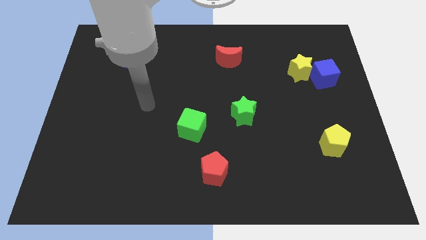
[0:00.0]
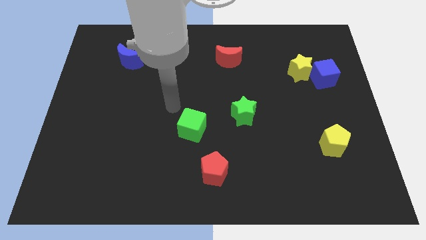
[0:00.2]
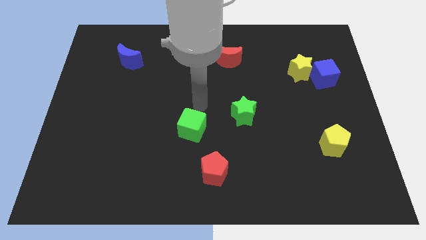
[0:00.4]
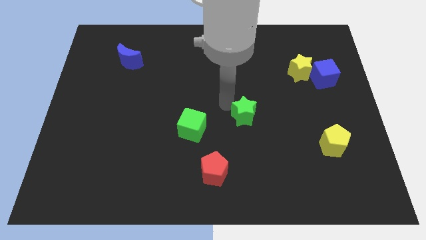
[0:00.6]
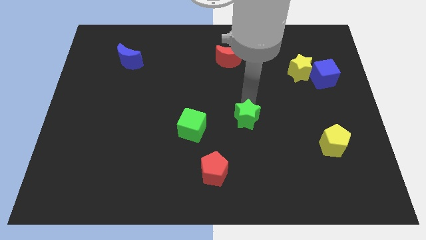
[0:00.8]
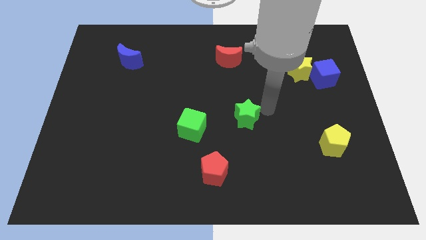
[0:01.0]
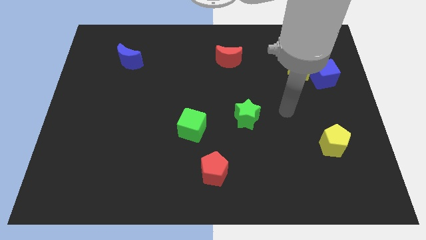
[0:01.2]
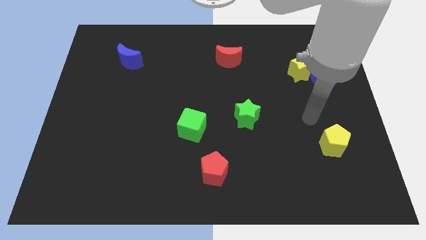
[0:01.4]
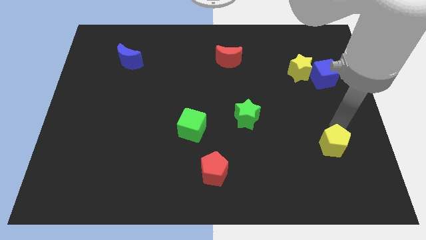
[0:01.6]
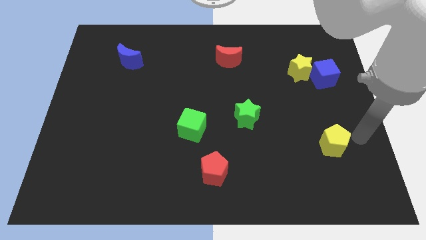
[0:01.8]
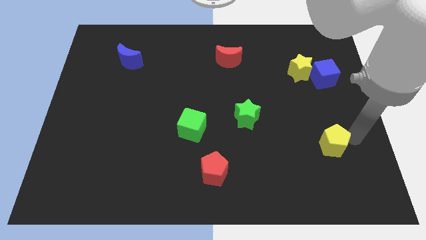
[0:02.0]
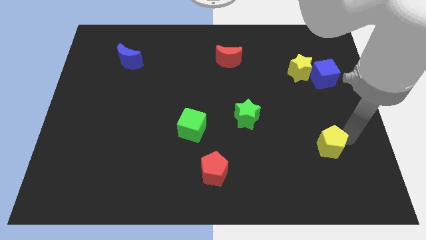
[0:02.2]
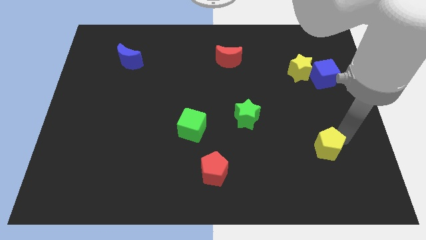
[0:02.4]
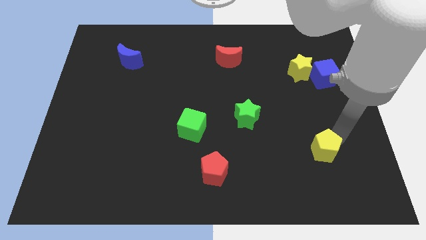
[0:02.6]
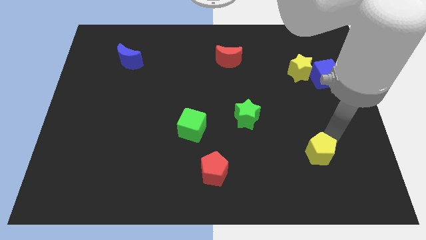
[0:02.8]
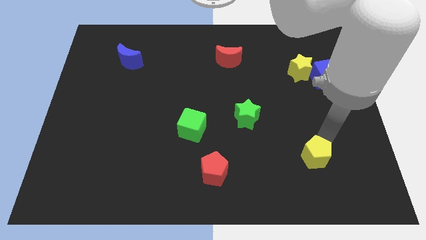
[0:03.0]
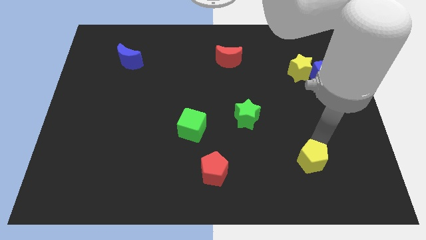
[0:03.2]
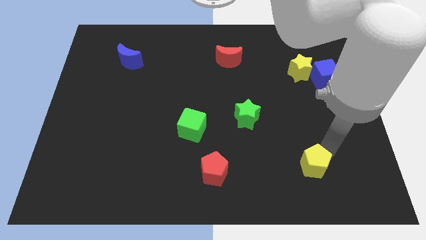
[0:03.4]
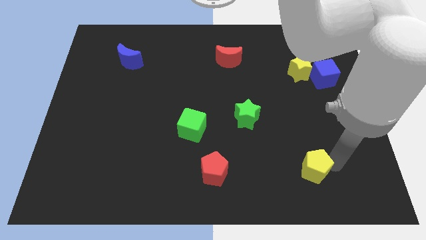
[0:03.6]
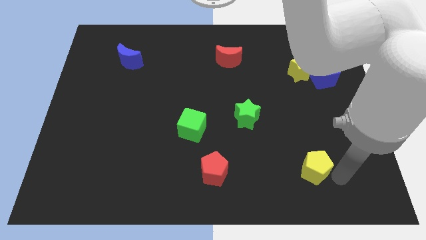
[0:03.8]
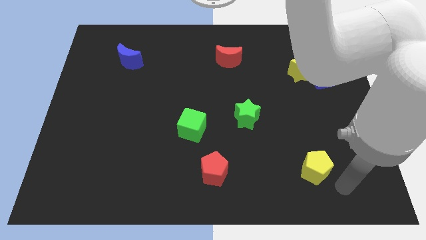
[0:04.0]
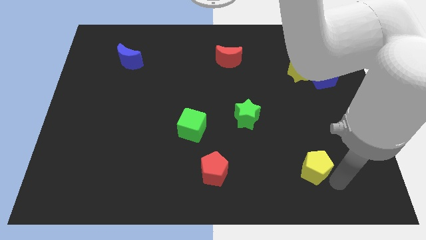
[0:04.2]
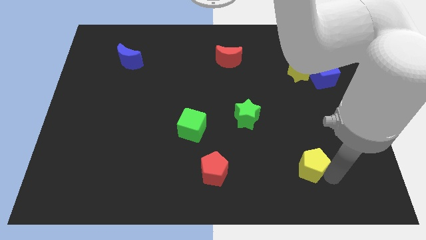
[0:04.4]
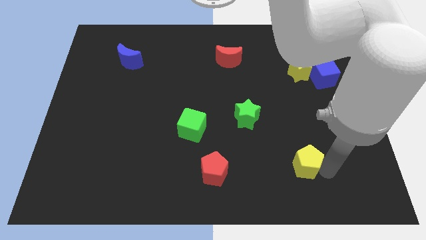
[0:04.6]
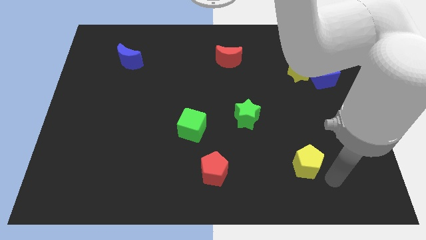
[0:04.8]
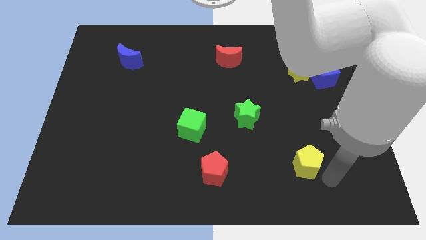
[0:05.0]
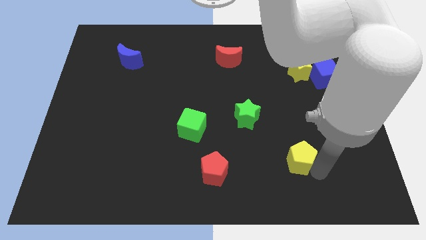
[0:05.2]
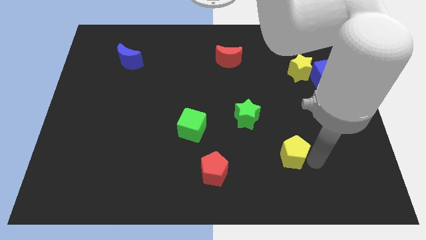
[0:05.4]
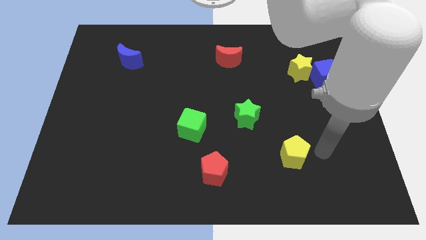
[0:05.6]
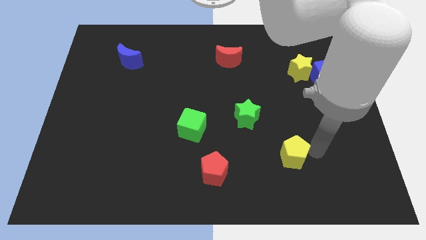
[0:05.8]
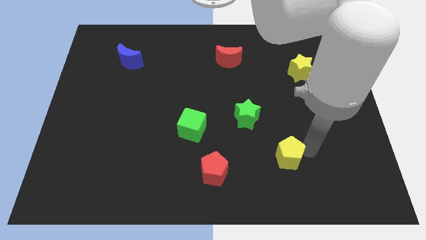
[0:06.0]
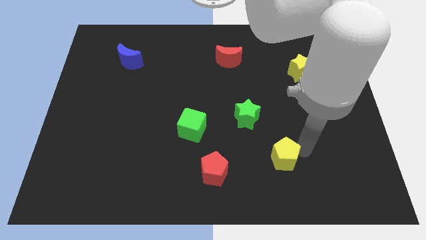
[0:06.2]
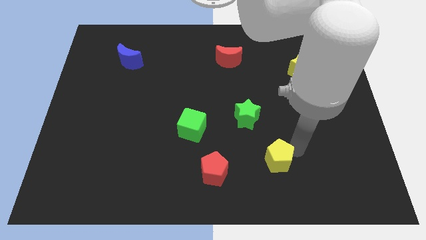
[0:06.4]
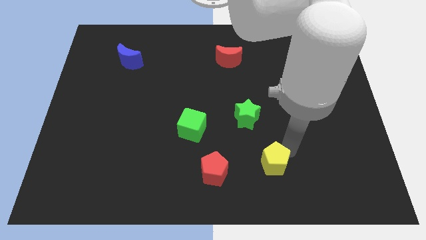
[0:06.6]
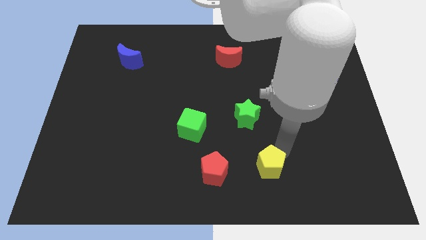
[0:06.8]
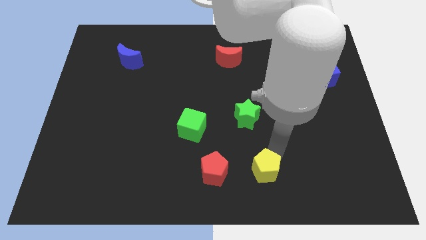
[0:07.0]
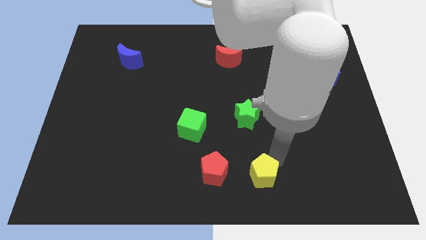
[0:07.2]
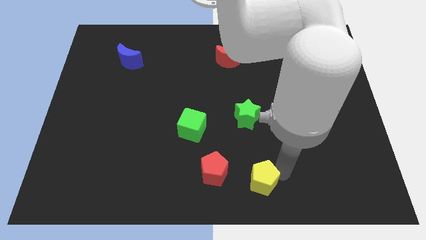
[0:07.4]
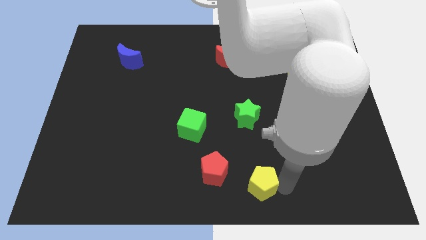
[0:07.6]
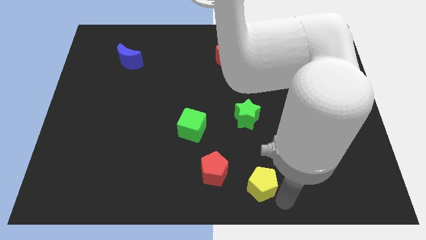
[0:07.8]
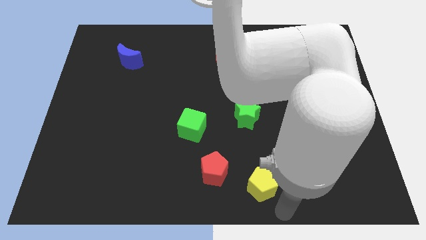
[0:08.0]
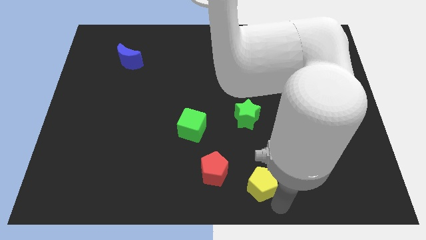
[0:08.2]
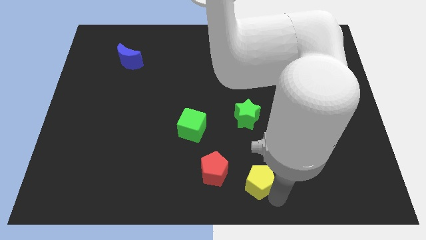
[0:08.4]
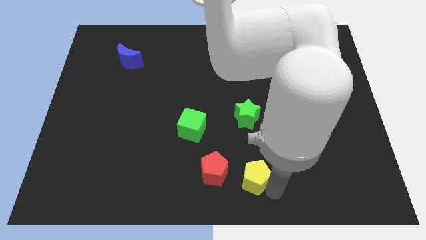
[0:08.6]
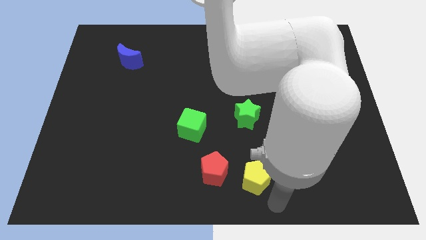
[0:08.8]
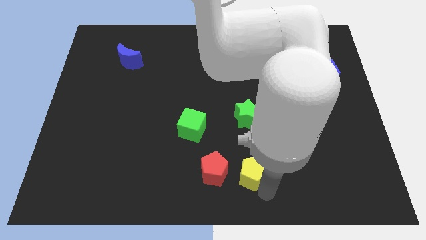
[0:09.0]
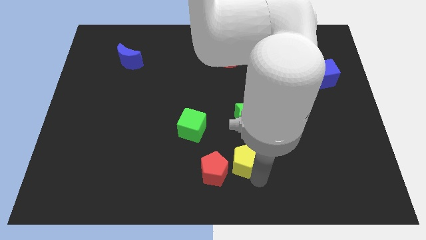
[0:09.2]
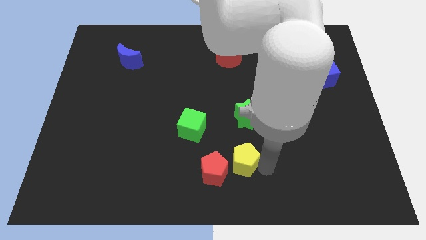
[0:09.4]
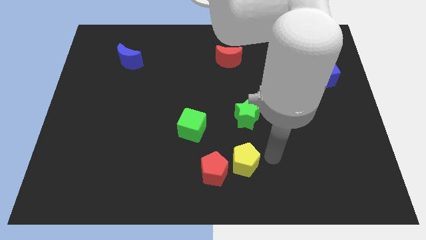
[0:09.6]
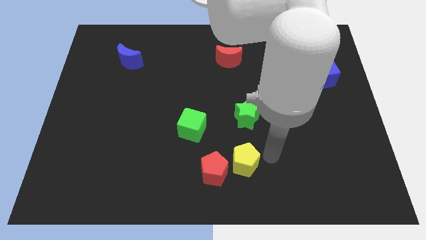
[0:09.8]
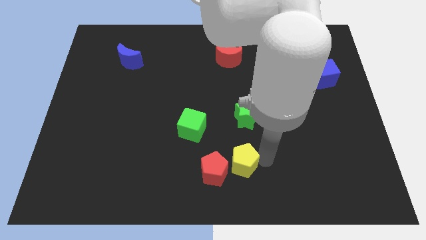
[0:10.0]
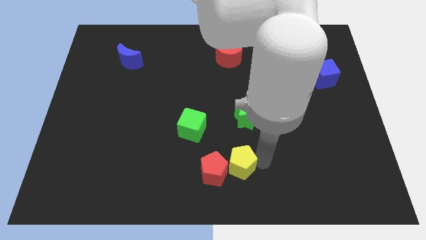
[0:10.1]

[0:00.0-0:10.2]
slide the yellow pentagon next to the red pentagon

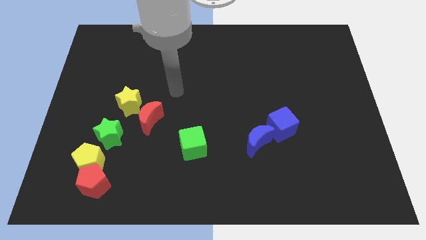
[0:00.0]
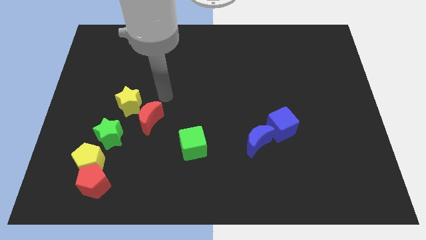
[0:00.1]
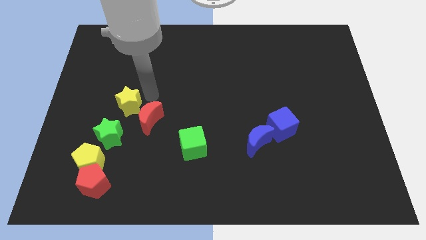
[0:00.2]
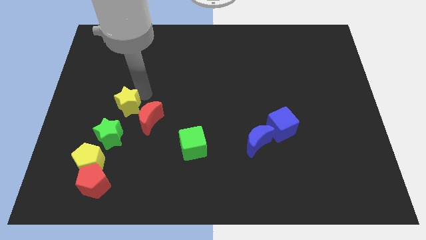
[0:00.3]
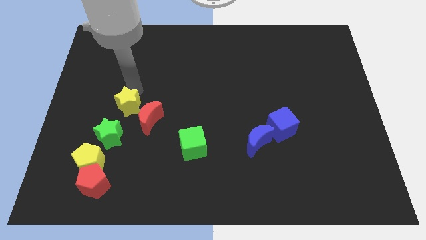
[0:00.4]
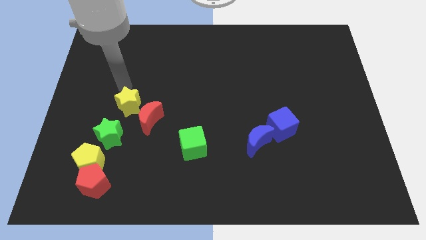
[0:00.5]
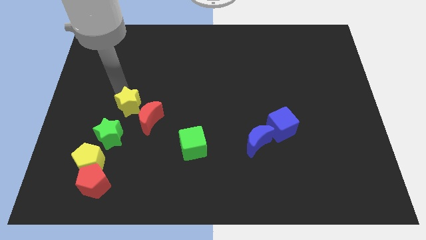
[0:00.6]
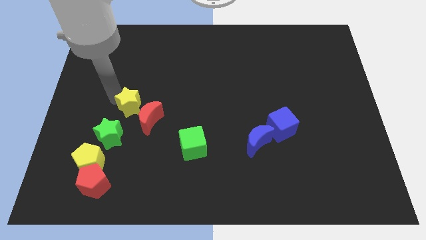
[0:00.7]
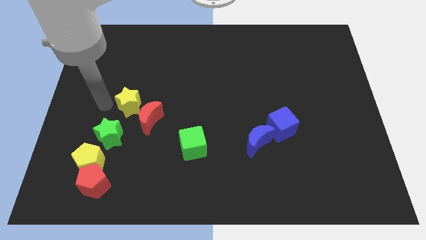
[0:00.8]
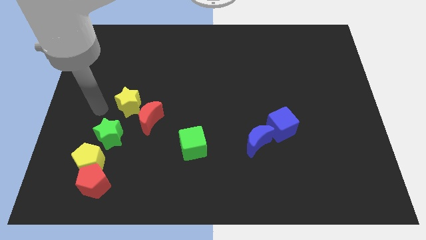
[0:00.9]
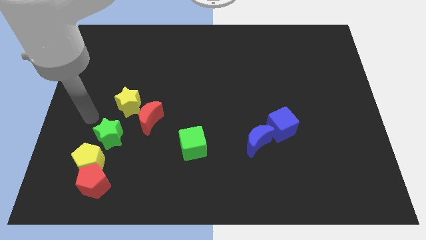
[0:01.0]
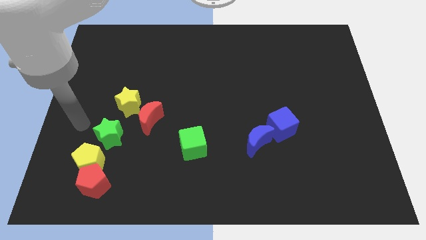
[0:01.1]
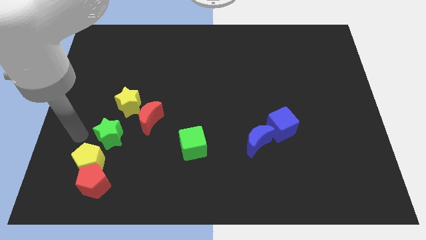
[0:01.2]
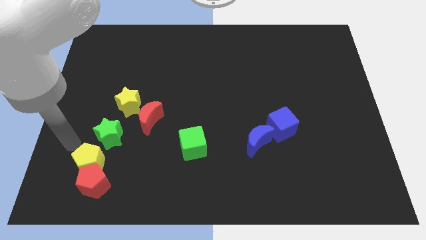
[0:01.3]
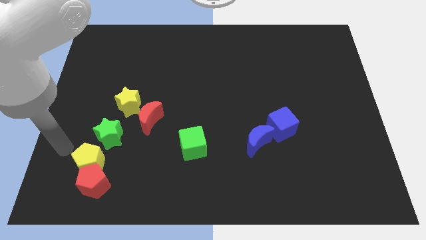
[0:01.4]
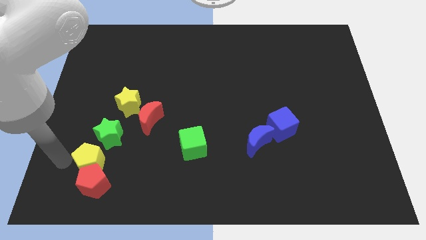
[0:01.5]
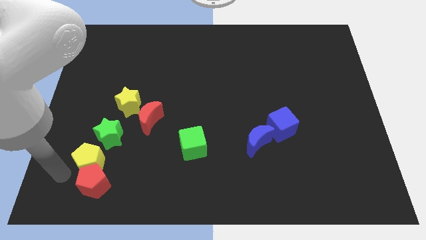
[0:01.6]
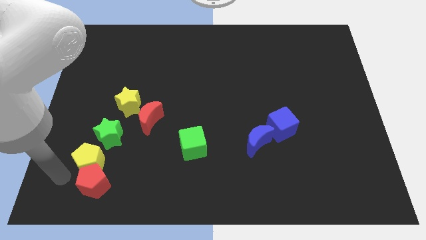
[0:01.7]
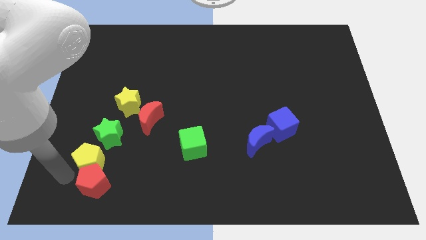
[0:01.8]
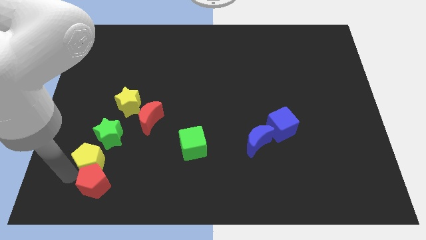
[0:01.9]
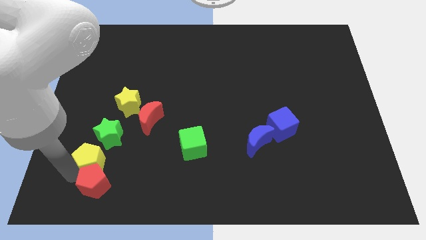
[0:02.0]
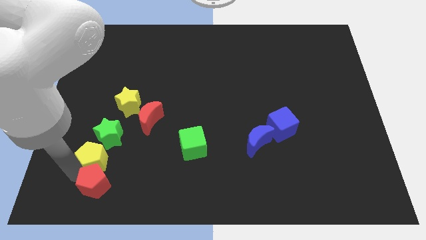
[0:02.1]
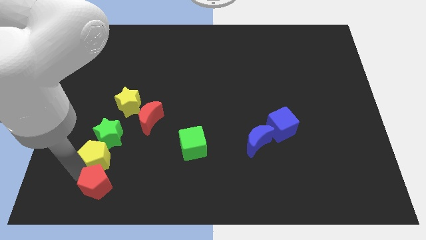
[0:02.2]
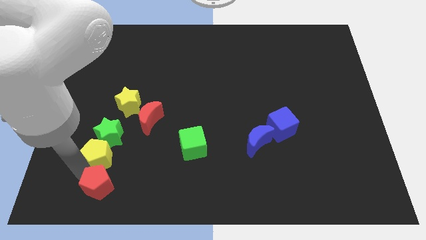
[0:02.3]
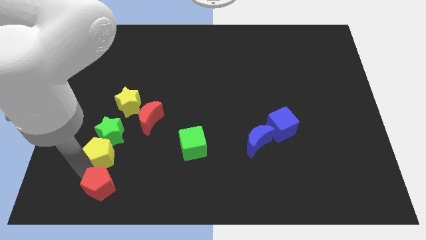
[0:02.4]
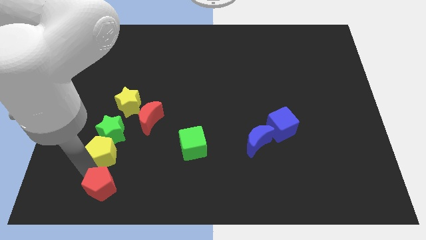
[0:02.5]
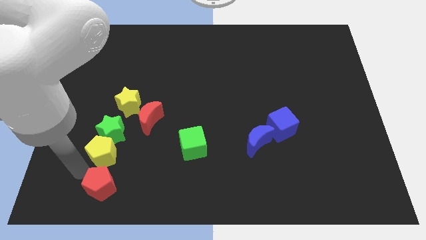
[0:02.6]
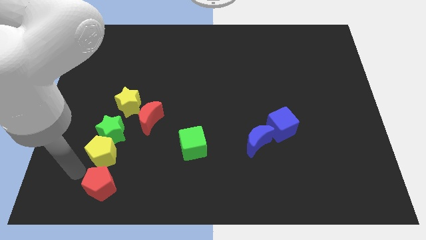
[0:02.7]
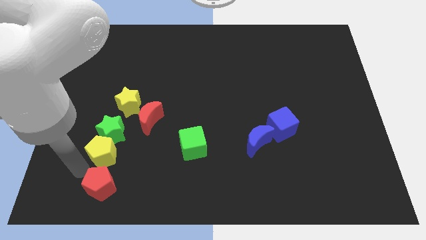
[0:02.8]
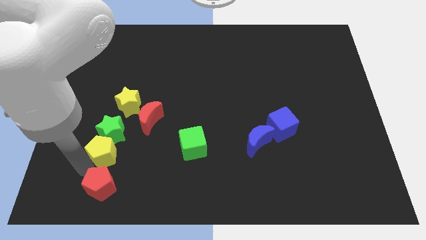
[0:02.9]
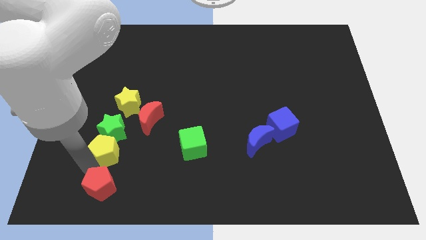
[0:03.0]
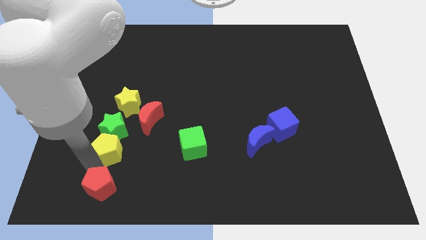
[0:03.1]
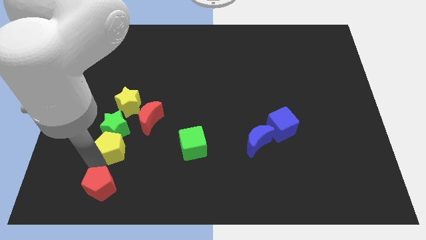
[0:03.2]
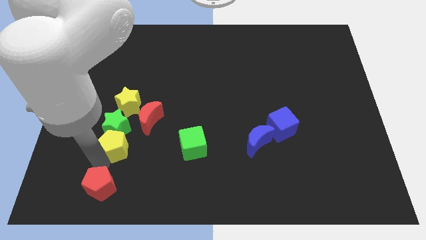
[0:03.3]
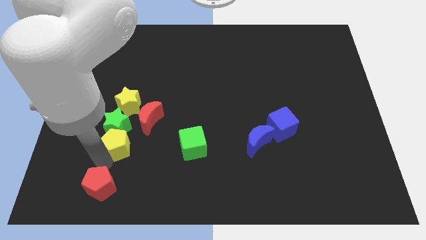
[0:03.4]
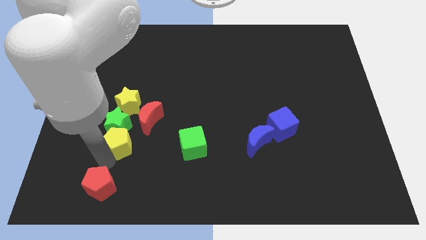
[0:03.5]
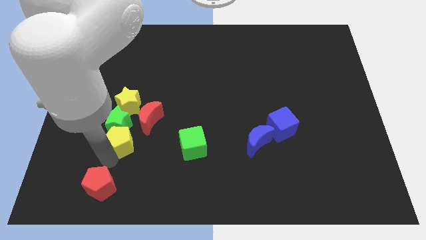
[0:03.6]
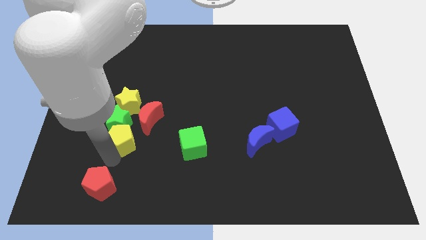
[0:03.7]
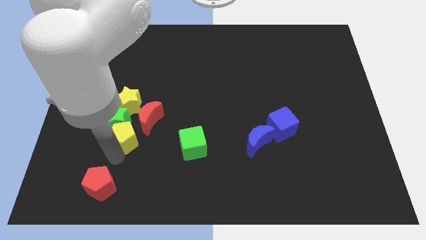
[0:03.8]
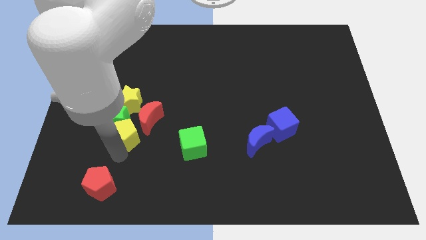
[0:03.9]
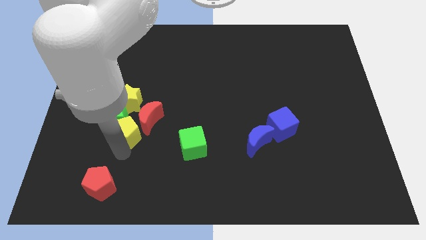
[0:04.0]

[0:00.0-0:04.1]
push the yellow pentagon towards the red moon
